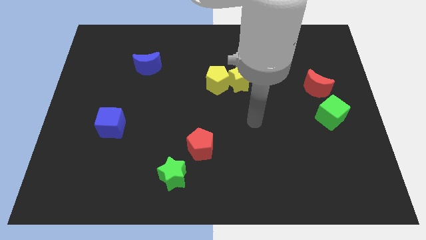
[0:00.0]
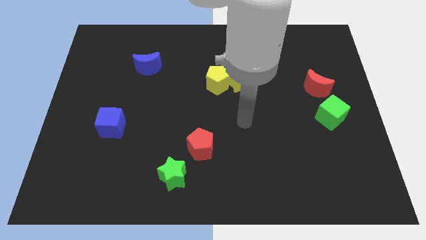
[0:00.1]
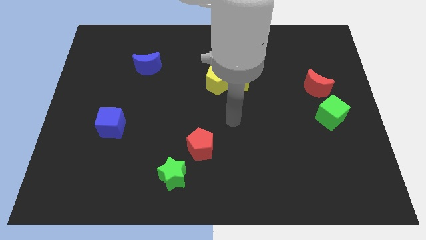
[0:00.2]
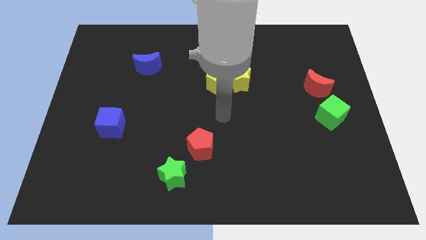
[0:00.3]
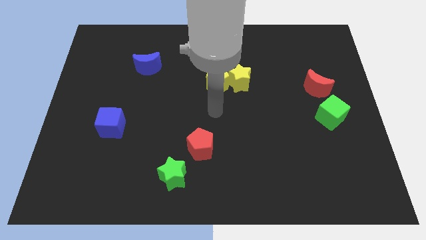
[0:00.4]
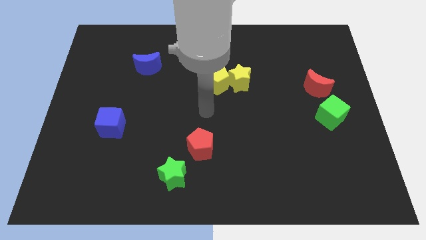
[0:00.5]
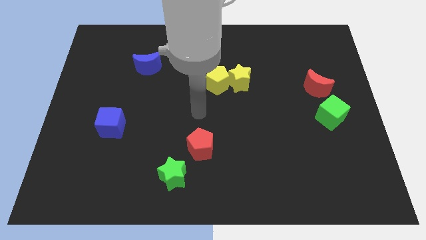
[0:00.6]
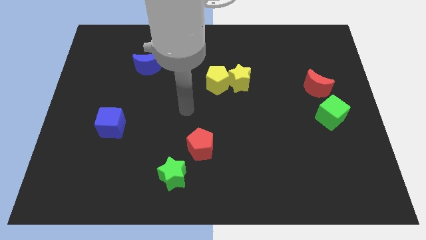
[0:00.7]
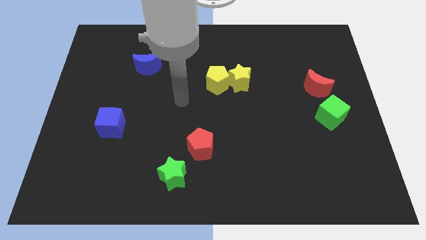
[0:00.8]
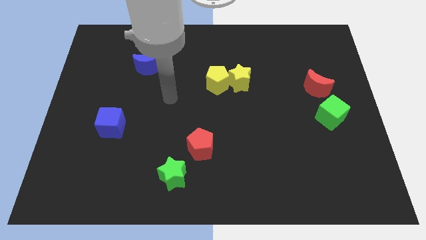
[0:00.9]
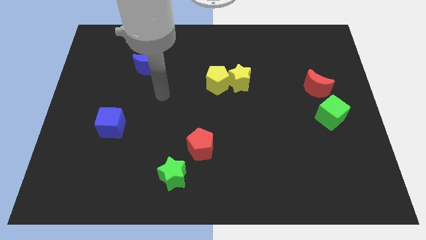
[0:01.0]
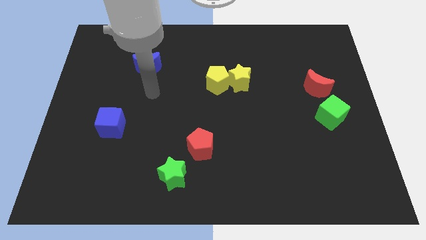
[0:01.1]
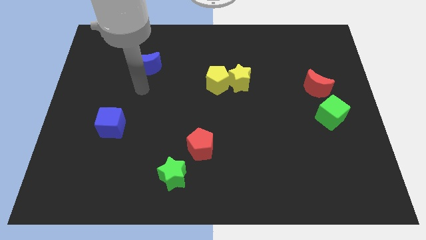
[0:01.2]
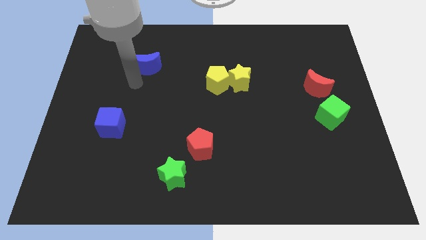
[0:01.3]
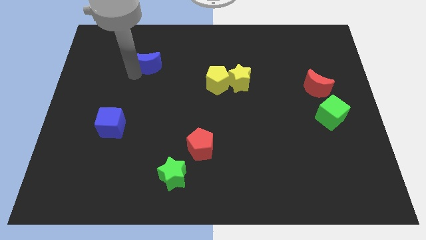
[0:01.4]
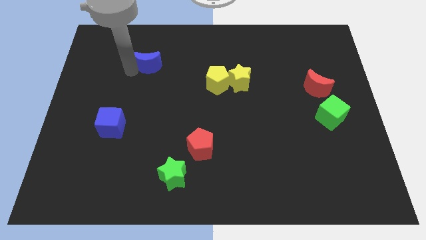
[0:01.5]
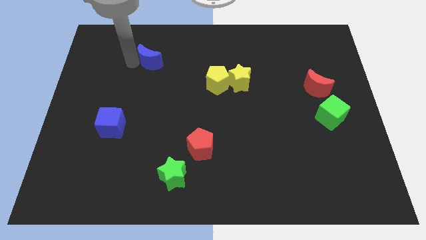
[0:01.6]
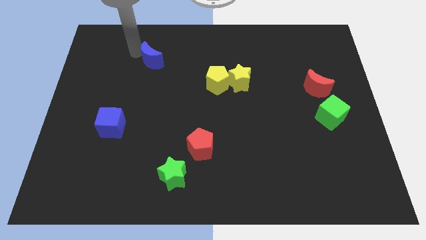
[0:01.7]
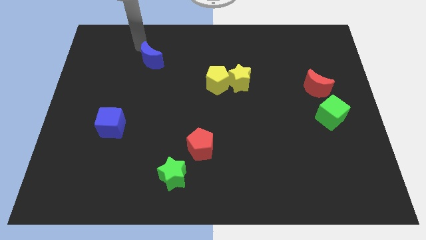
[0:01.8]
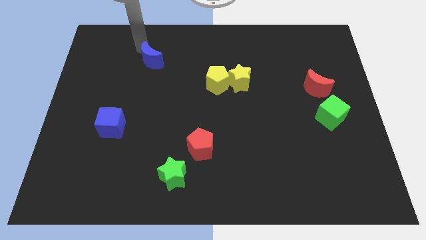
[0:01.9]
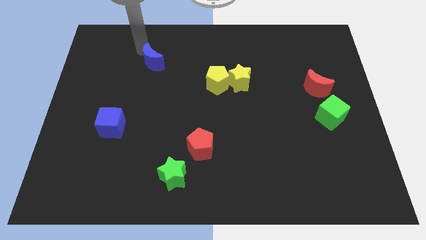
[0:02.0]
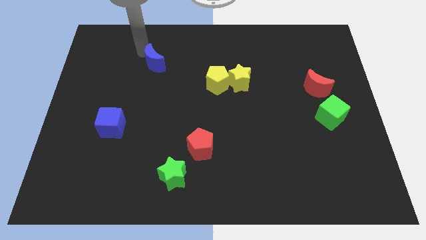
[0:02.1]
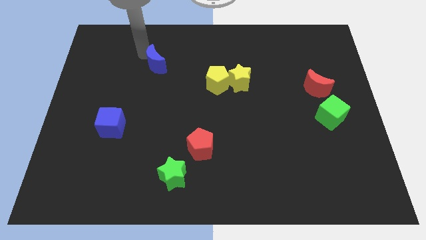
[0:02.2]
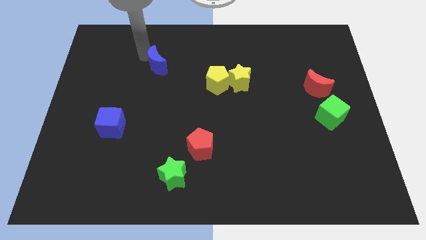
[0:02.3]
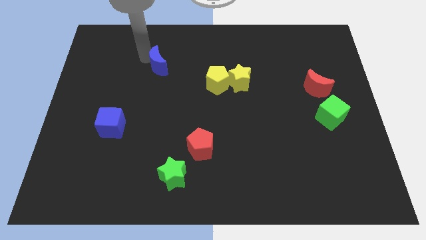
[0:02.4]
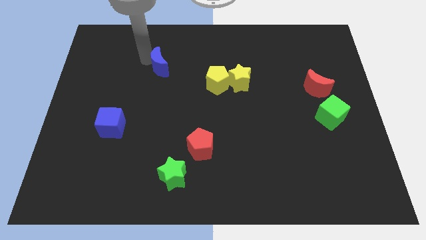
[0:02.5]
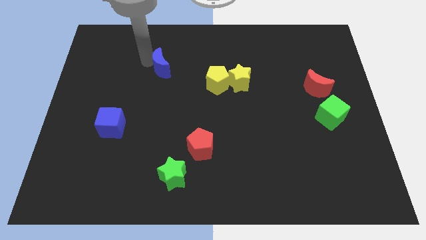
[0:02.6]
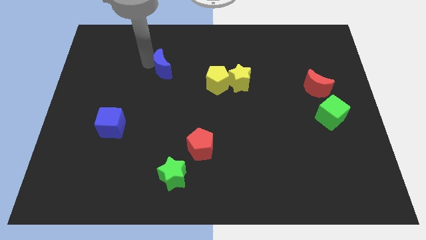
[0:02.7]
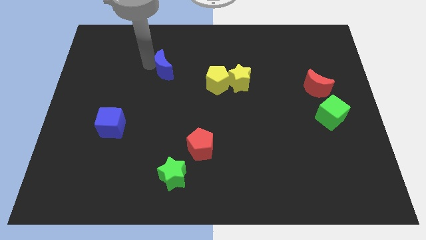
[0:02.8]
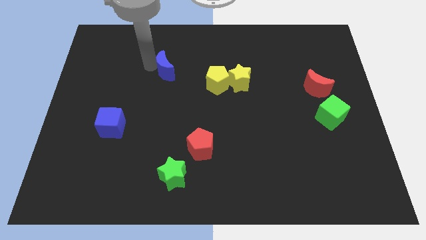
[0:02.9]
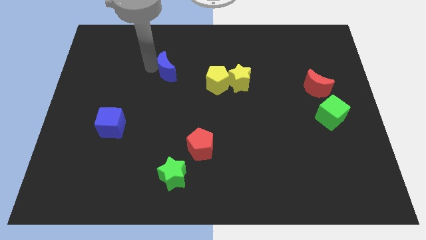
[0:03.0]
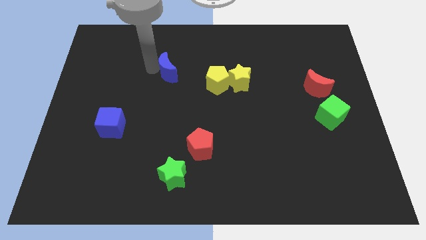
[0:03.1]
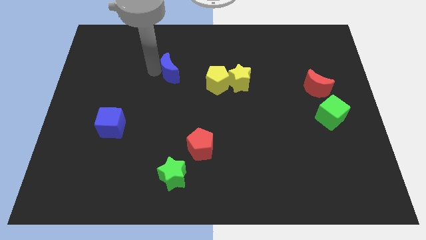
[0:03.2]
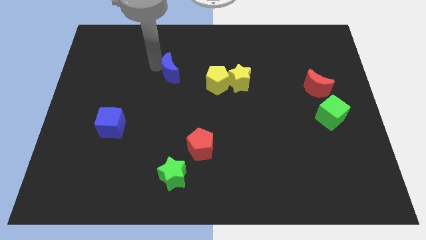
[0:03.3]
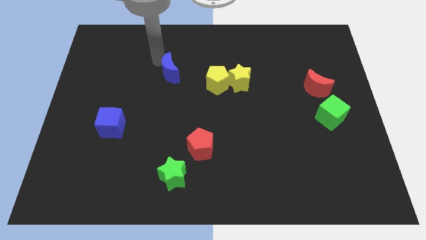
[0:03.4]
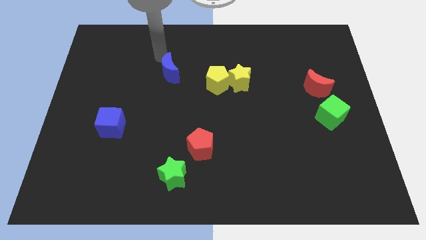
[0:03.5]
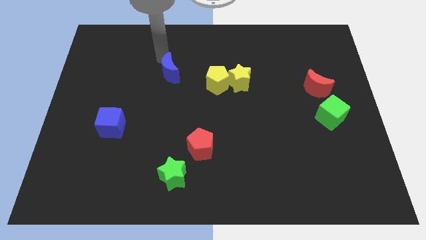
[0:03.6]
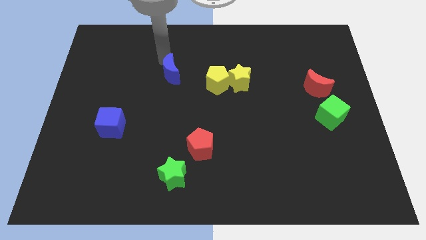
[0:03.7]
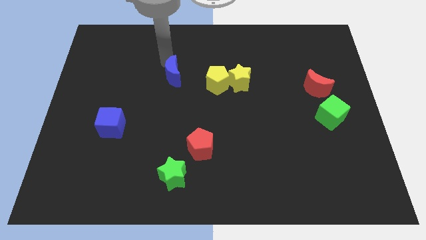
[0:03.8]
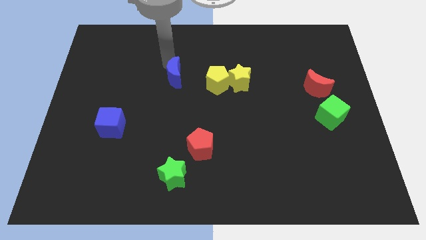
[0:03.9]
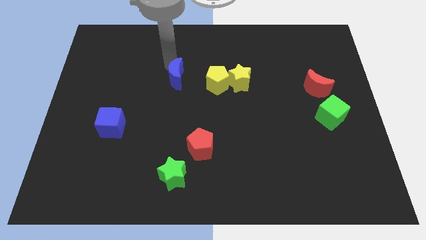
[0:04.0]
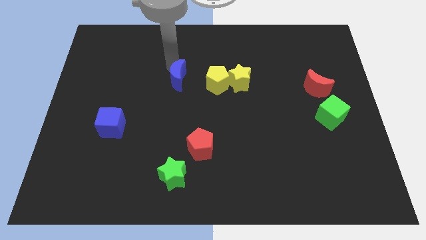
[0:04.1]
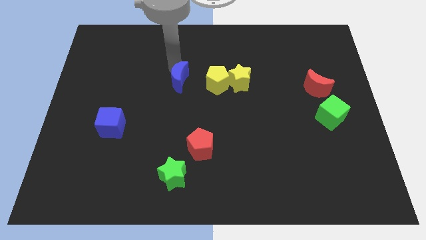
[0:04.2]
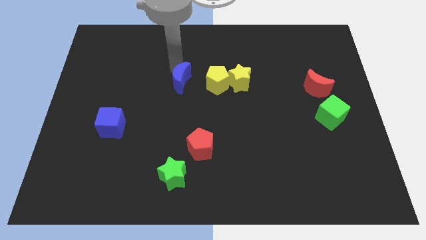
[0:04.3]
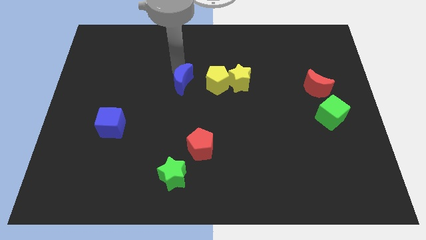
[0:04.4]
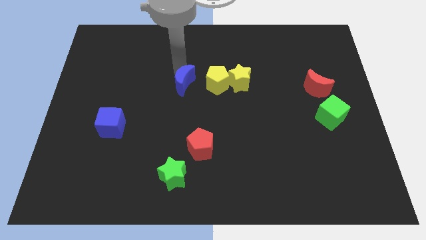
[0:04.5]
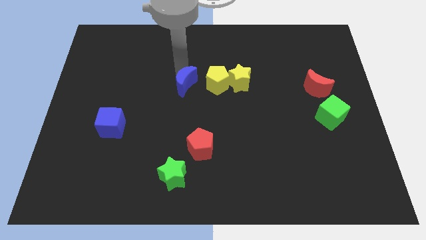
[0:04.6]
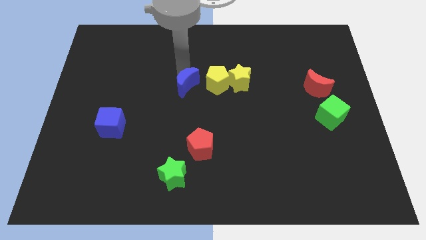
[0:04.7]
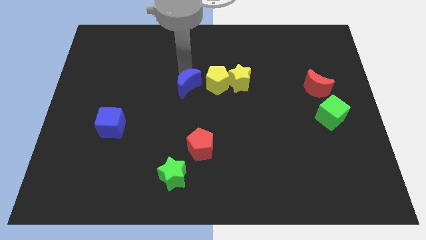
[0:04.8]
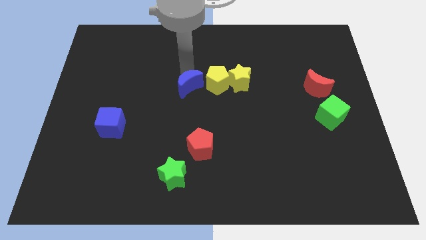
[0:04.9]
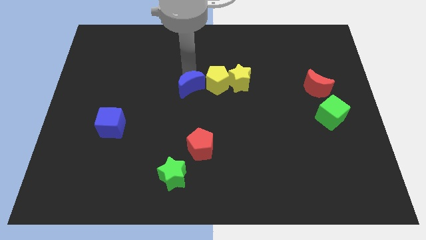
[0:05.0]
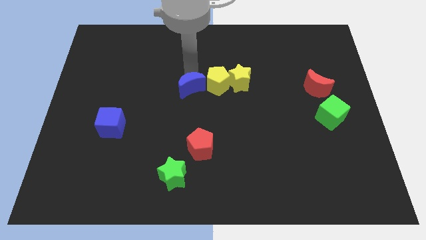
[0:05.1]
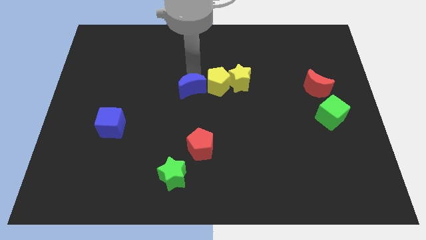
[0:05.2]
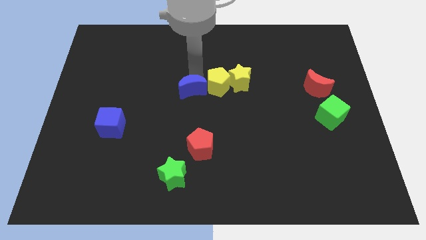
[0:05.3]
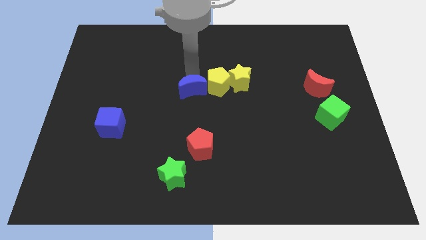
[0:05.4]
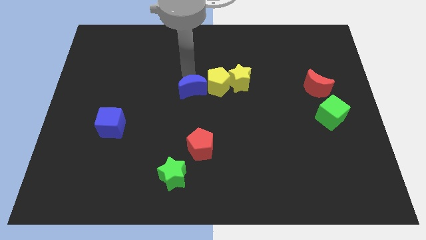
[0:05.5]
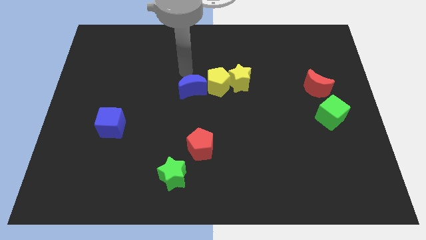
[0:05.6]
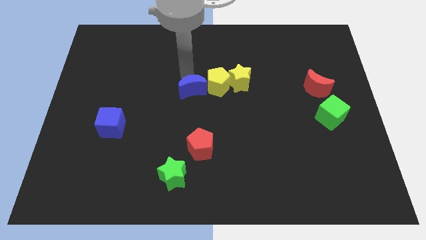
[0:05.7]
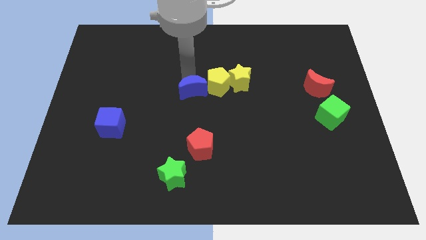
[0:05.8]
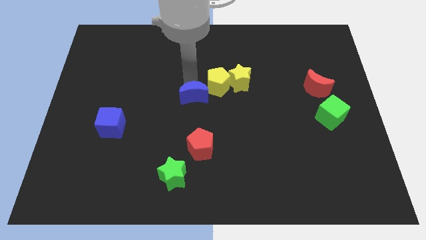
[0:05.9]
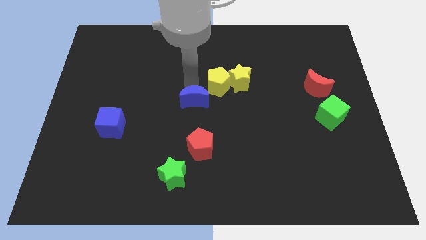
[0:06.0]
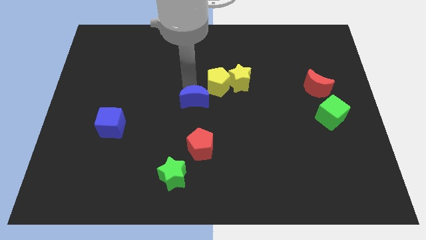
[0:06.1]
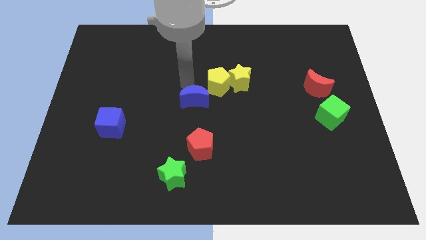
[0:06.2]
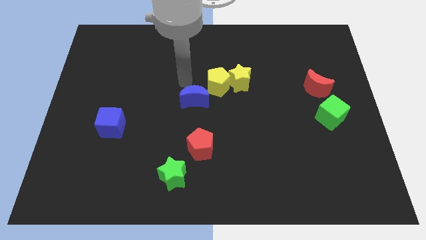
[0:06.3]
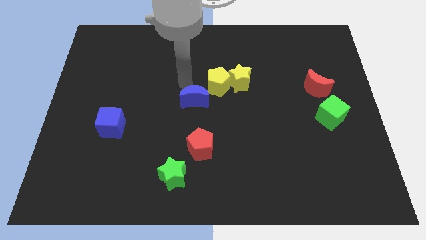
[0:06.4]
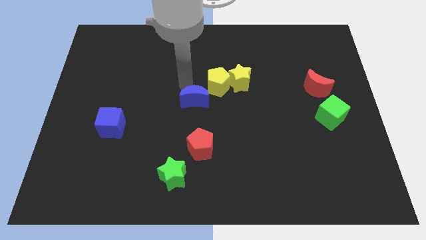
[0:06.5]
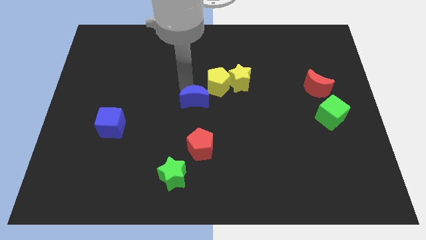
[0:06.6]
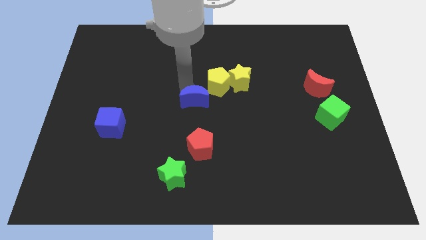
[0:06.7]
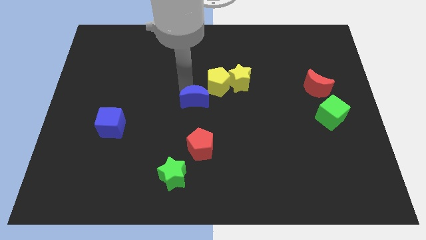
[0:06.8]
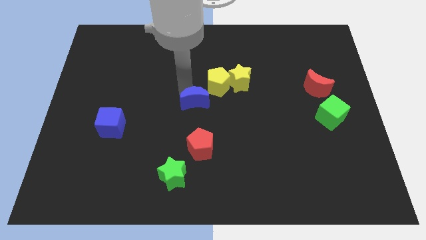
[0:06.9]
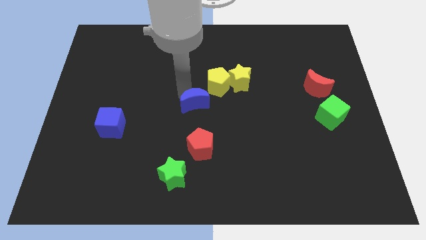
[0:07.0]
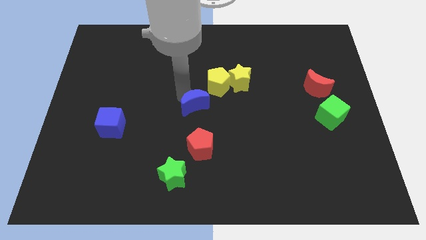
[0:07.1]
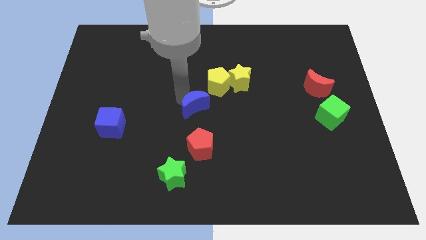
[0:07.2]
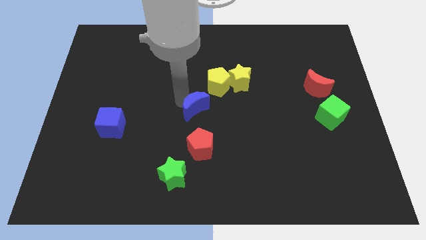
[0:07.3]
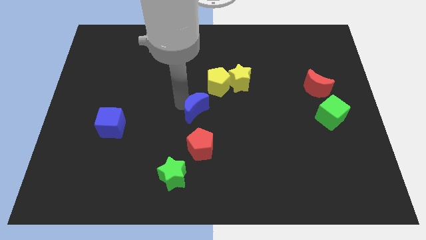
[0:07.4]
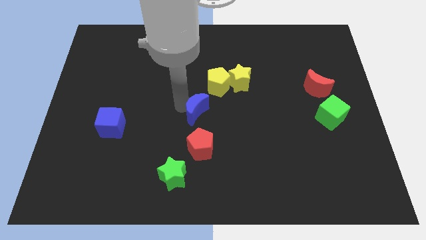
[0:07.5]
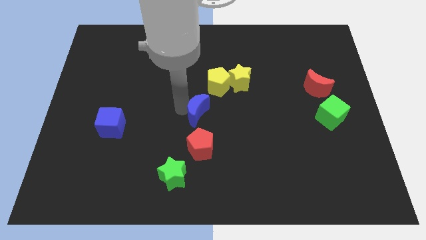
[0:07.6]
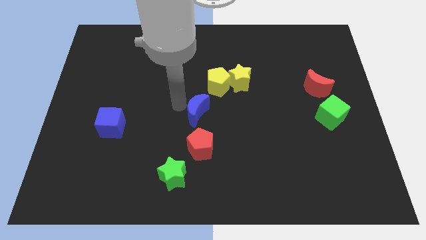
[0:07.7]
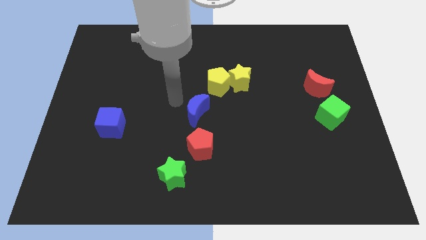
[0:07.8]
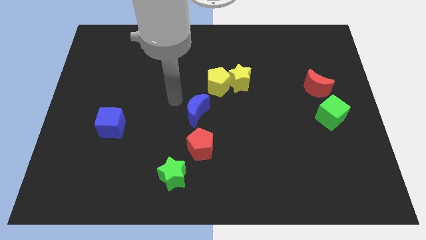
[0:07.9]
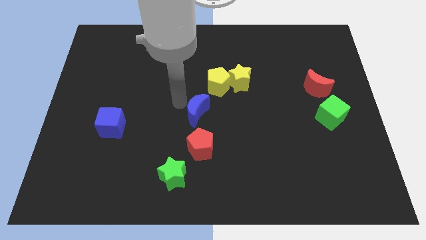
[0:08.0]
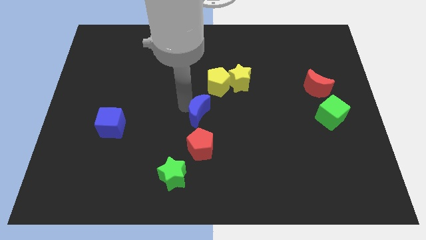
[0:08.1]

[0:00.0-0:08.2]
move the blue moon down and to the right diagonally
